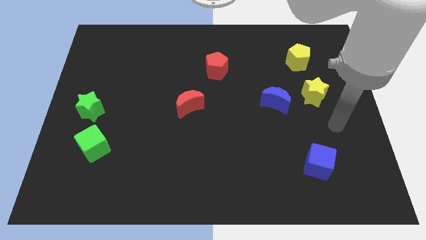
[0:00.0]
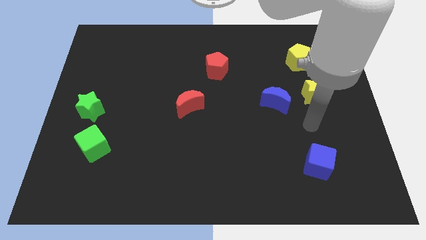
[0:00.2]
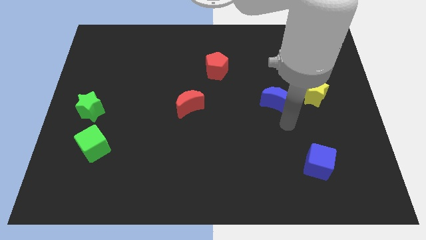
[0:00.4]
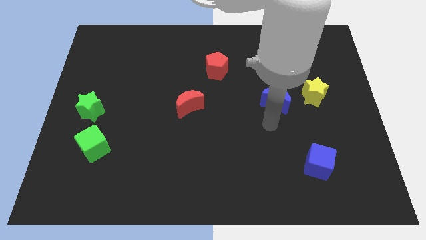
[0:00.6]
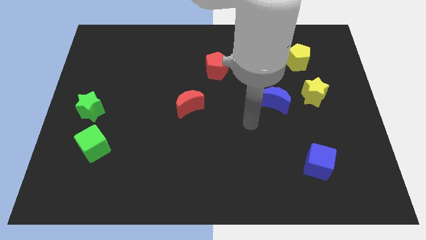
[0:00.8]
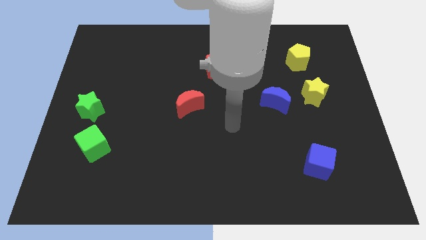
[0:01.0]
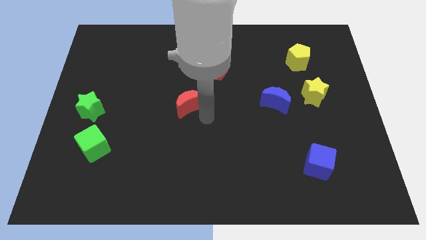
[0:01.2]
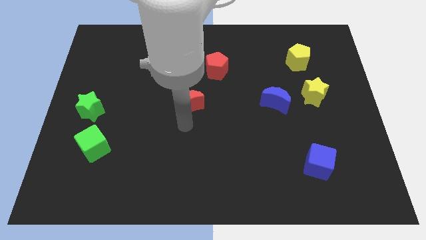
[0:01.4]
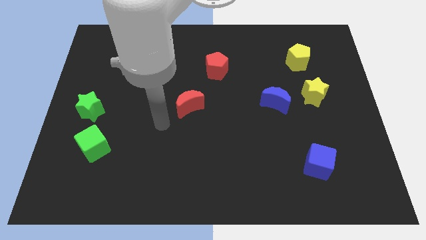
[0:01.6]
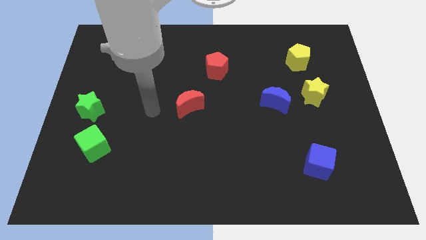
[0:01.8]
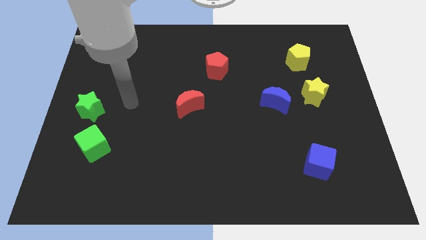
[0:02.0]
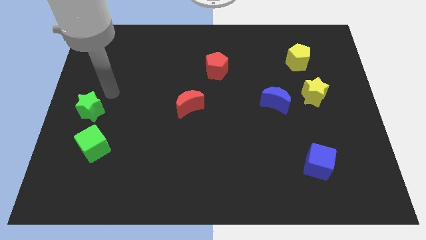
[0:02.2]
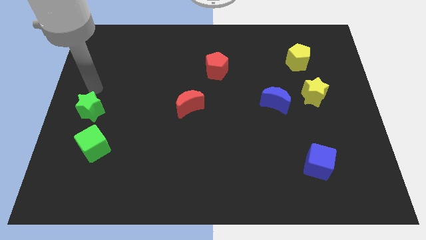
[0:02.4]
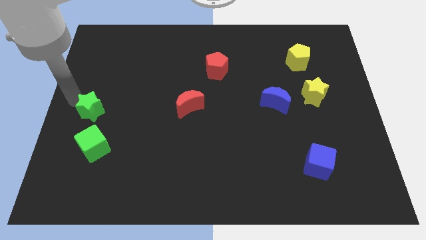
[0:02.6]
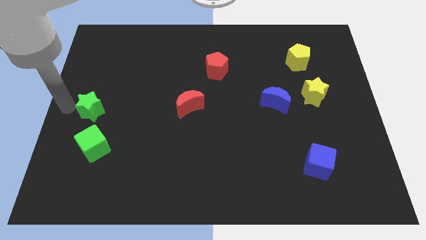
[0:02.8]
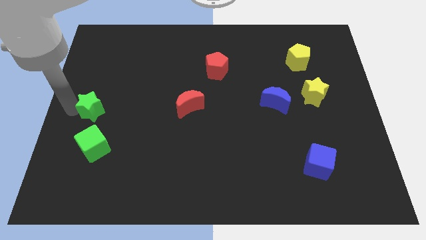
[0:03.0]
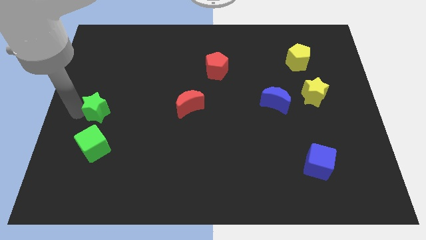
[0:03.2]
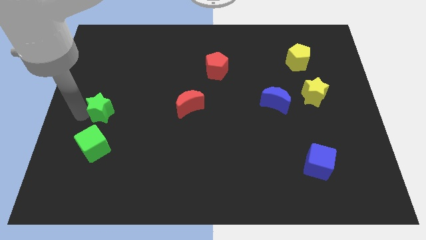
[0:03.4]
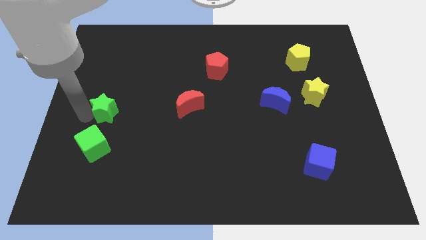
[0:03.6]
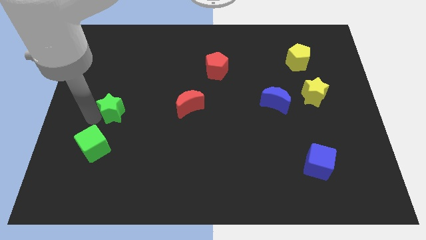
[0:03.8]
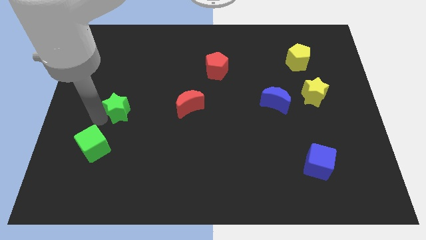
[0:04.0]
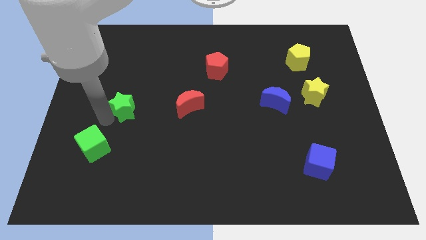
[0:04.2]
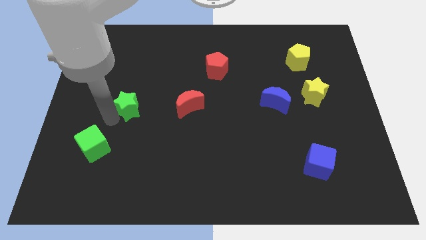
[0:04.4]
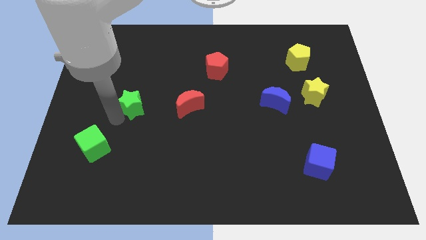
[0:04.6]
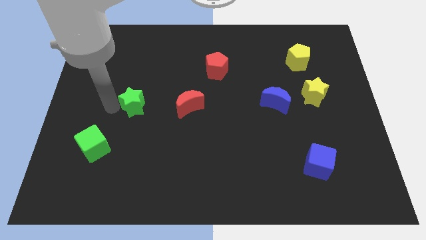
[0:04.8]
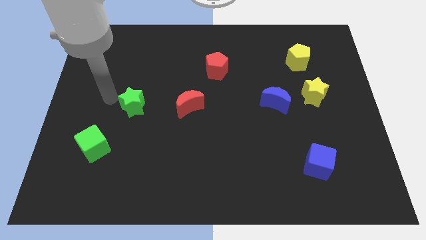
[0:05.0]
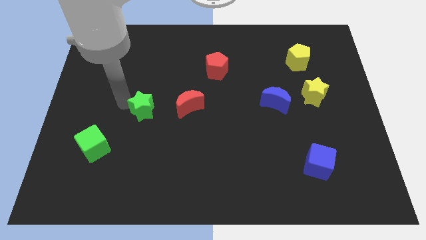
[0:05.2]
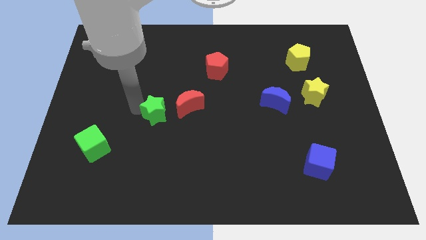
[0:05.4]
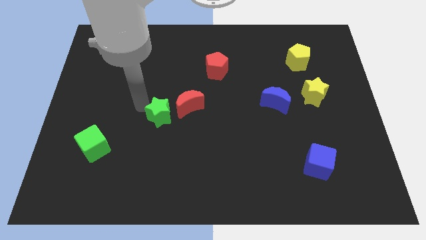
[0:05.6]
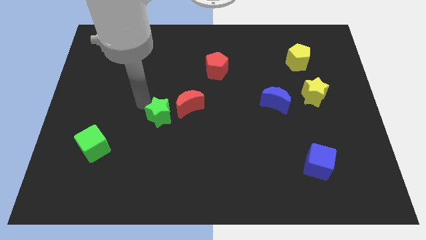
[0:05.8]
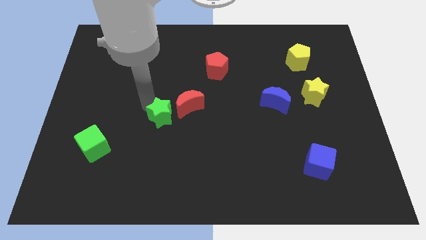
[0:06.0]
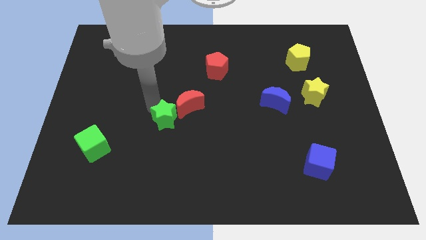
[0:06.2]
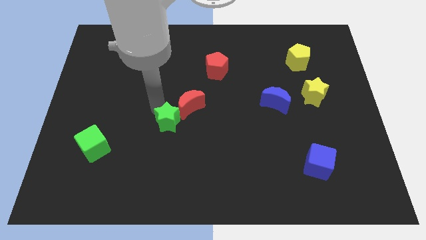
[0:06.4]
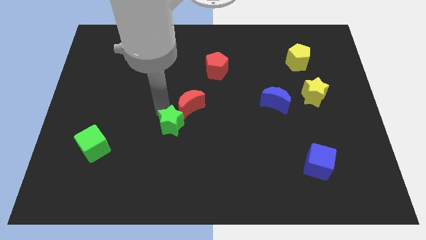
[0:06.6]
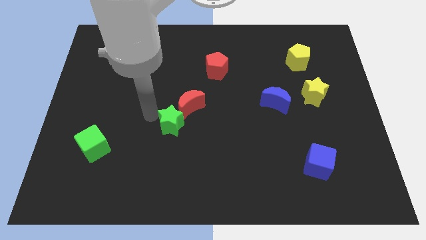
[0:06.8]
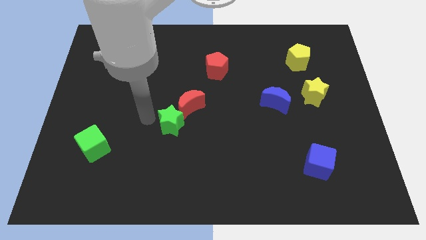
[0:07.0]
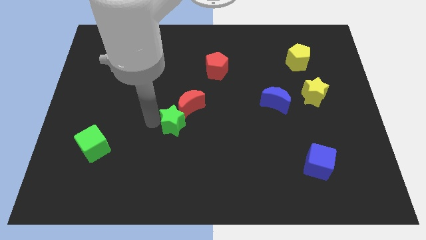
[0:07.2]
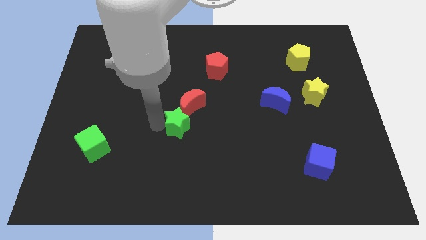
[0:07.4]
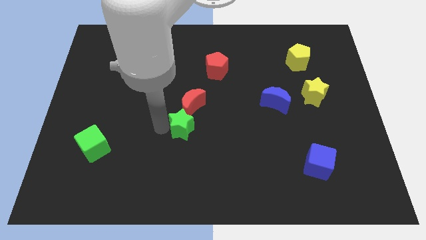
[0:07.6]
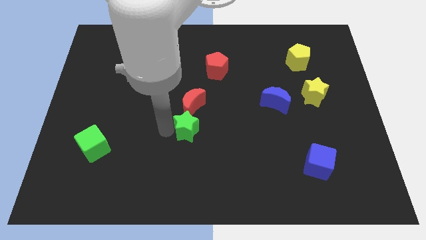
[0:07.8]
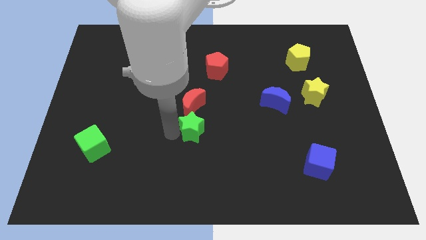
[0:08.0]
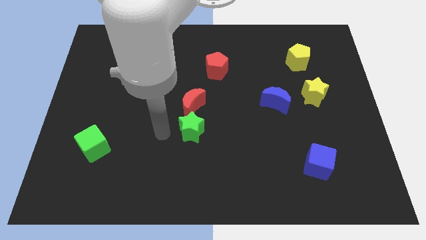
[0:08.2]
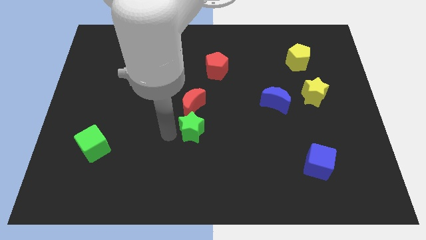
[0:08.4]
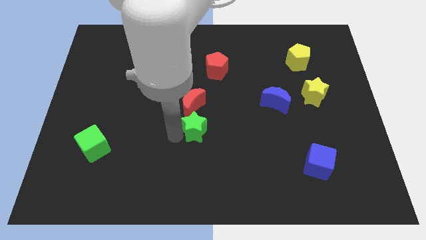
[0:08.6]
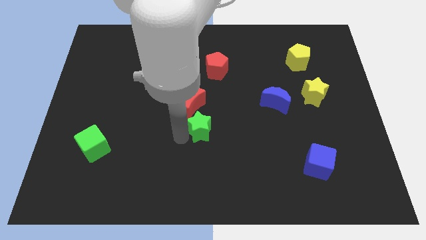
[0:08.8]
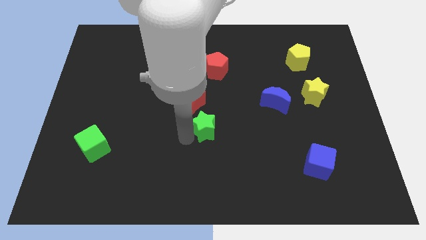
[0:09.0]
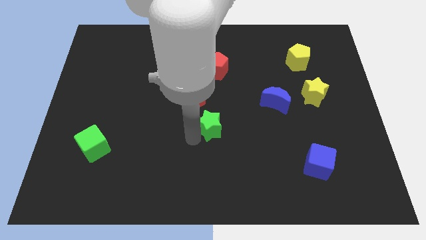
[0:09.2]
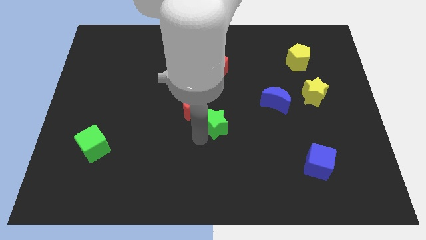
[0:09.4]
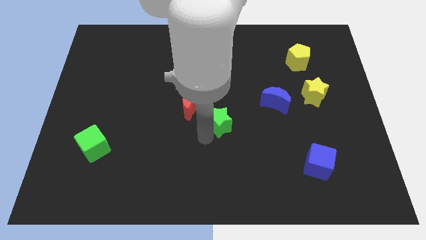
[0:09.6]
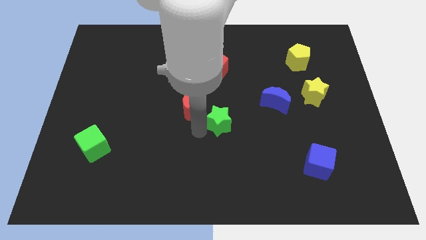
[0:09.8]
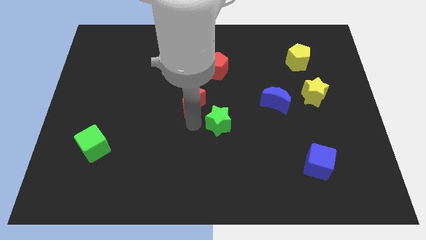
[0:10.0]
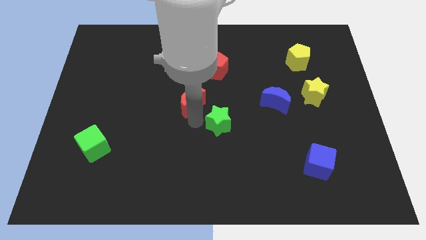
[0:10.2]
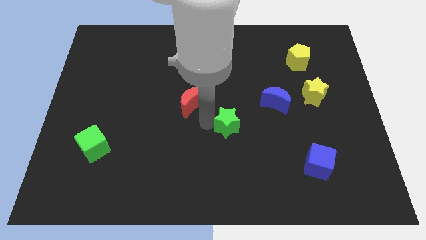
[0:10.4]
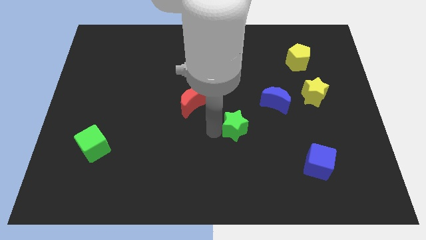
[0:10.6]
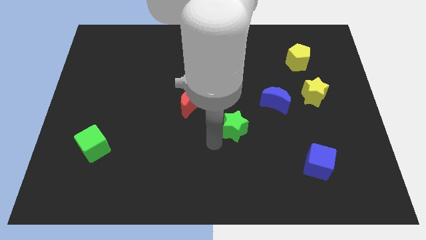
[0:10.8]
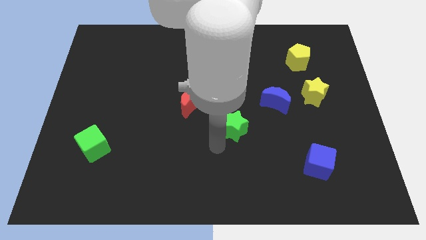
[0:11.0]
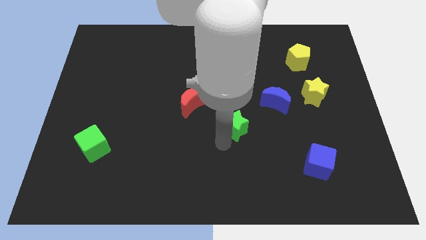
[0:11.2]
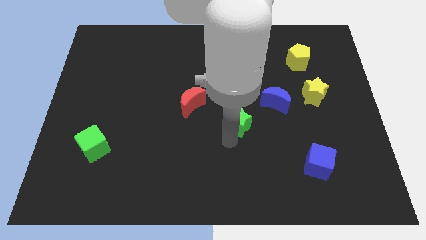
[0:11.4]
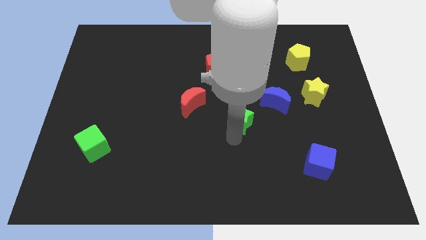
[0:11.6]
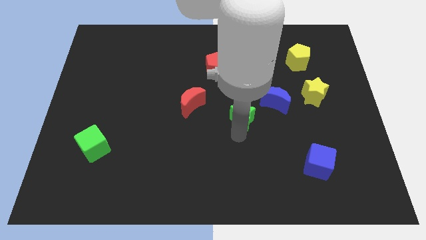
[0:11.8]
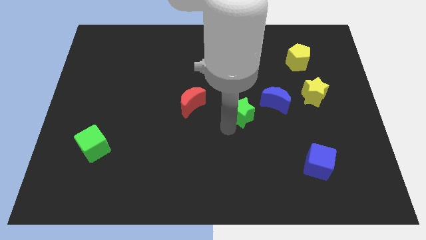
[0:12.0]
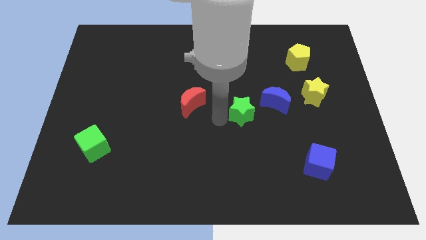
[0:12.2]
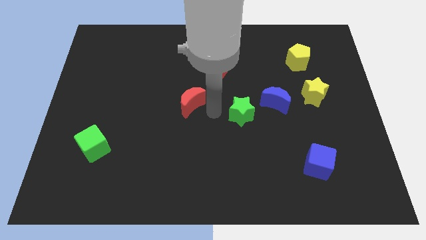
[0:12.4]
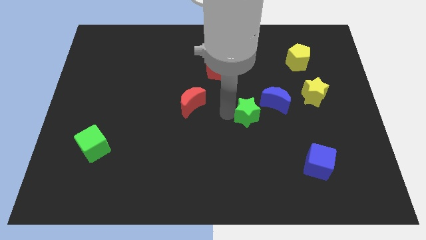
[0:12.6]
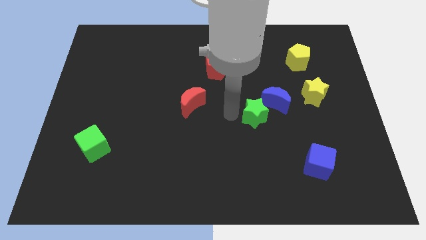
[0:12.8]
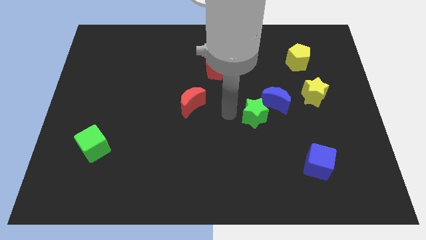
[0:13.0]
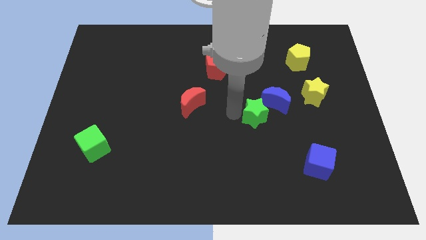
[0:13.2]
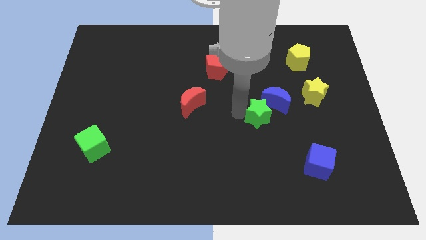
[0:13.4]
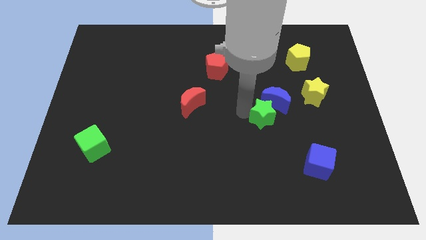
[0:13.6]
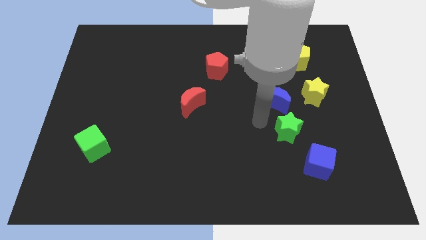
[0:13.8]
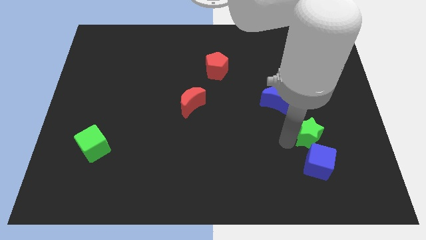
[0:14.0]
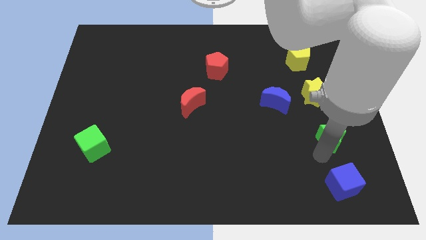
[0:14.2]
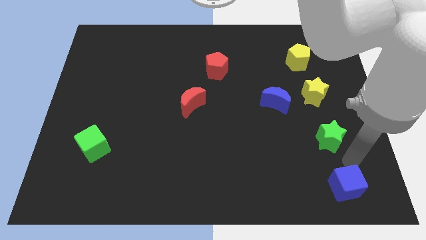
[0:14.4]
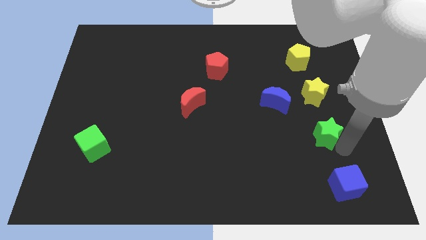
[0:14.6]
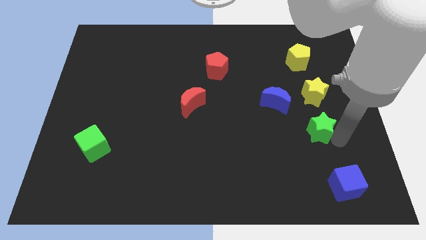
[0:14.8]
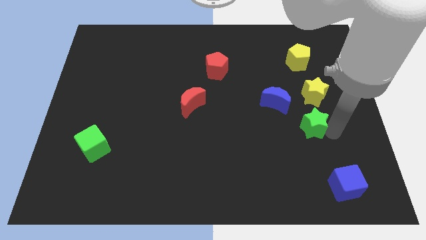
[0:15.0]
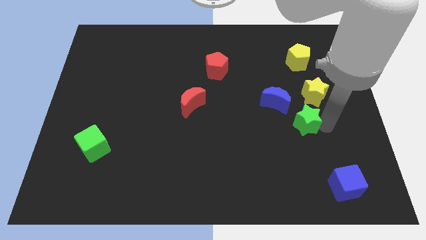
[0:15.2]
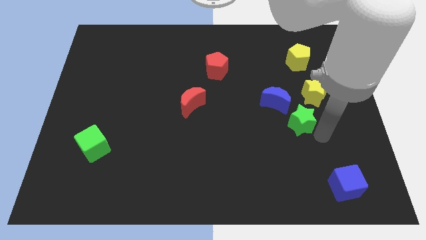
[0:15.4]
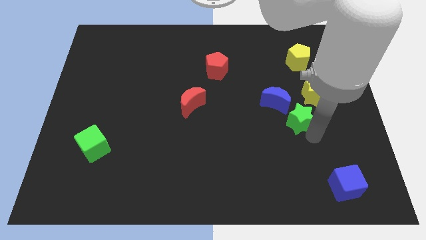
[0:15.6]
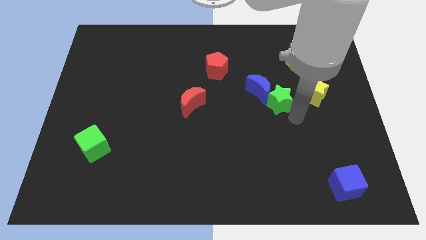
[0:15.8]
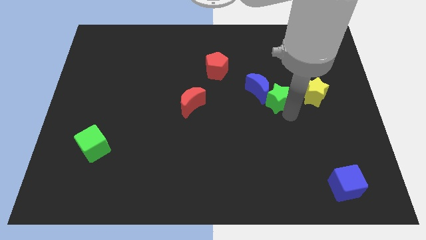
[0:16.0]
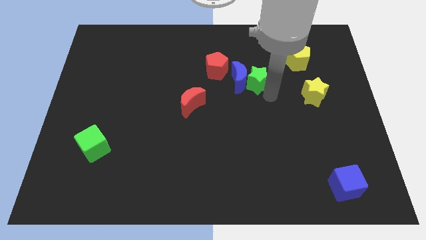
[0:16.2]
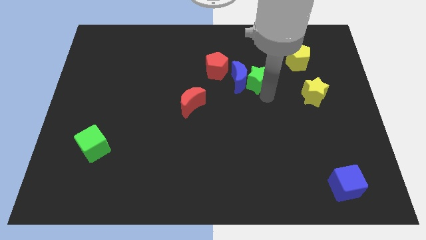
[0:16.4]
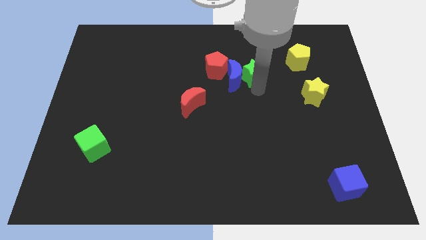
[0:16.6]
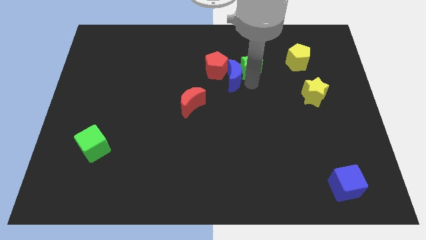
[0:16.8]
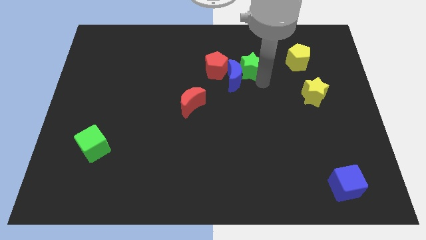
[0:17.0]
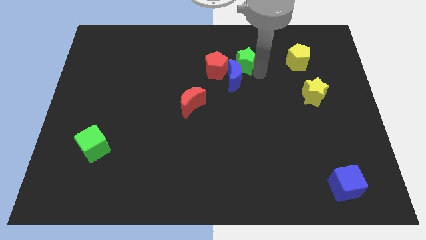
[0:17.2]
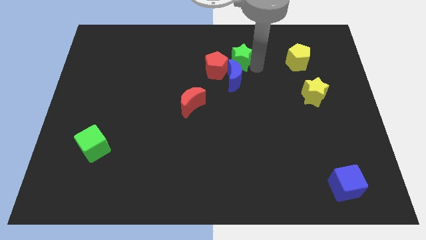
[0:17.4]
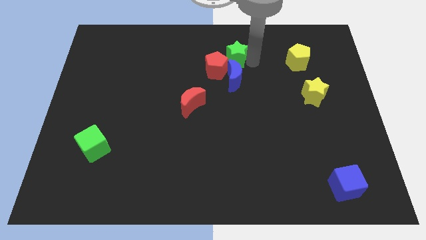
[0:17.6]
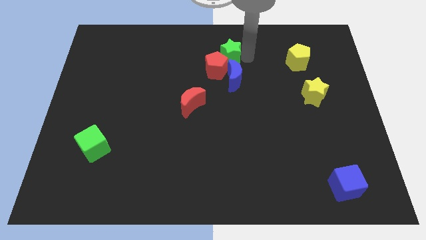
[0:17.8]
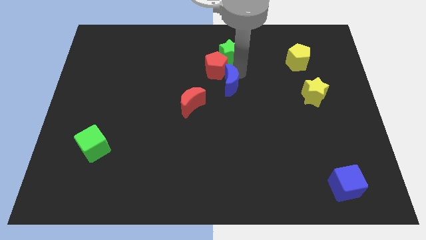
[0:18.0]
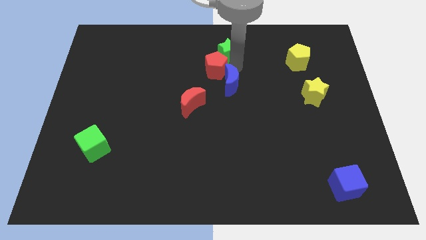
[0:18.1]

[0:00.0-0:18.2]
push the green star to the top side
